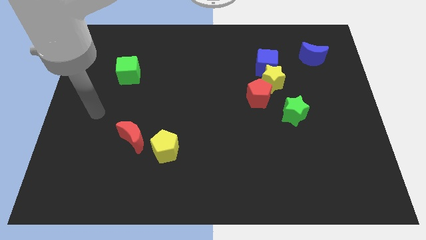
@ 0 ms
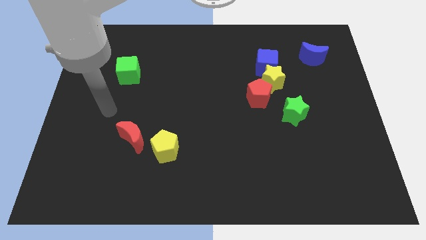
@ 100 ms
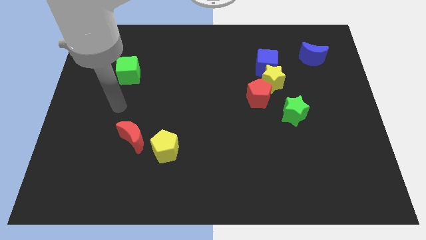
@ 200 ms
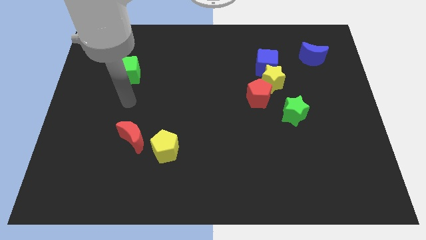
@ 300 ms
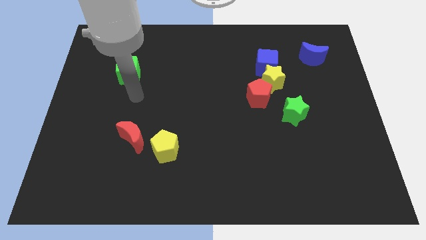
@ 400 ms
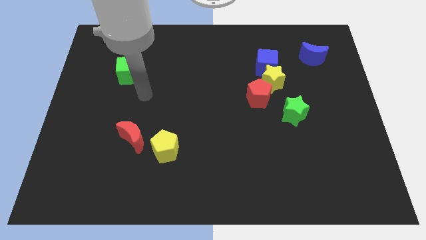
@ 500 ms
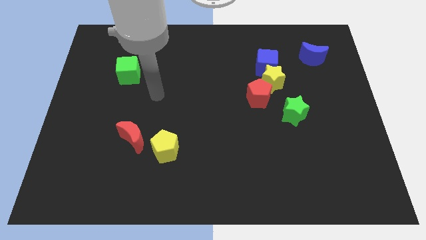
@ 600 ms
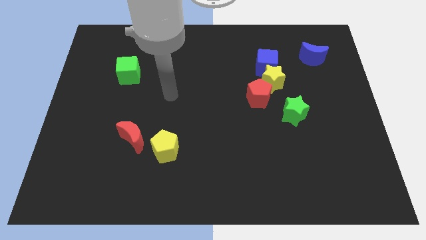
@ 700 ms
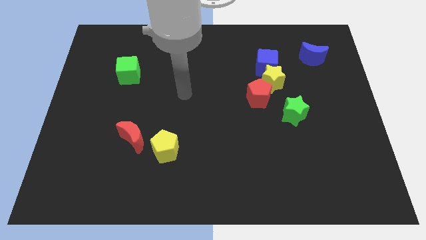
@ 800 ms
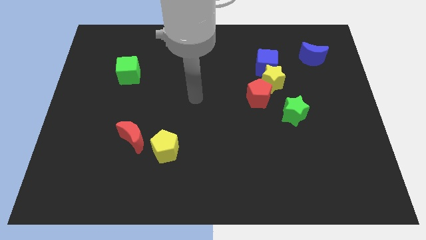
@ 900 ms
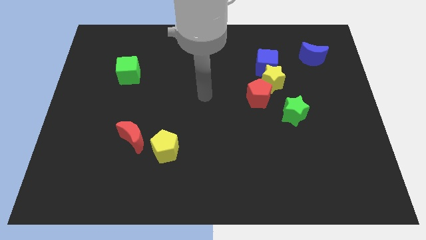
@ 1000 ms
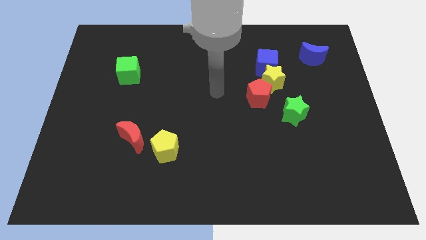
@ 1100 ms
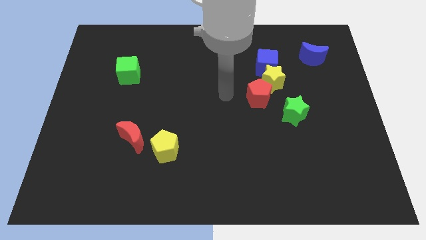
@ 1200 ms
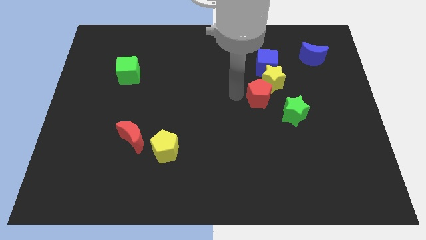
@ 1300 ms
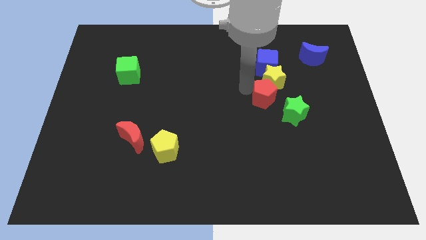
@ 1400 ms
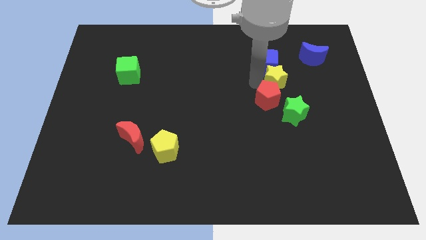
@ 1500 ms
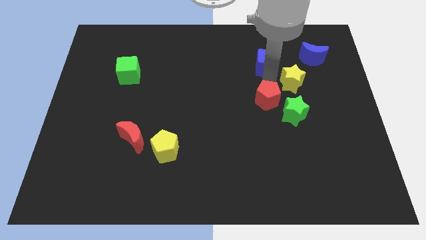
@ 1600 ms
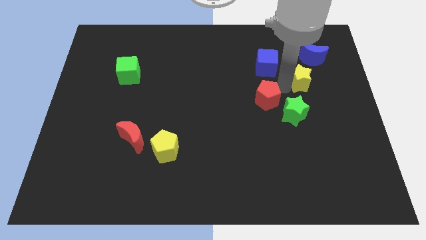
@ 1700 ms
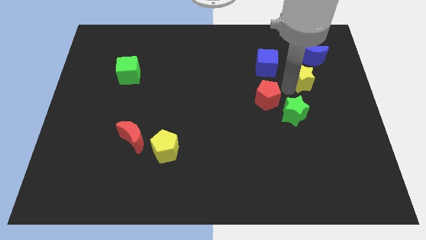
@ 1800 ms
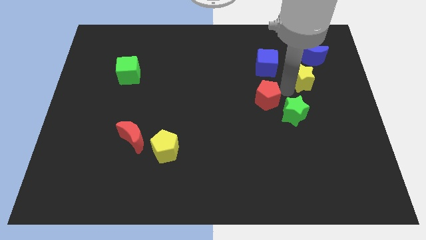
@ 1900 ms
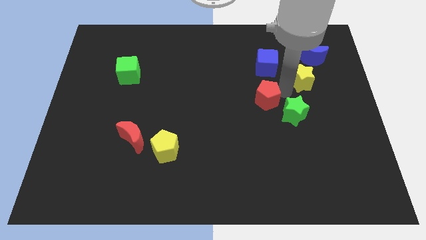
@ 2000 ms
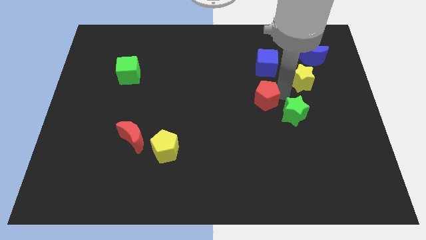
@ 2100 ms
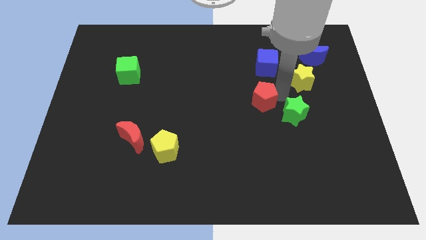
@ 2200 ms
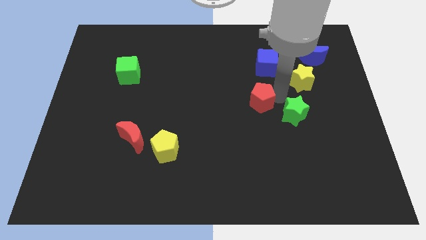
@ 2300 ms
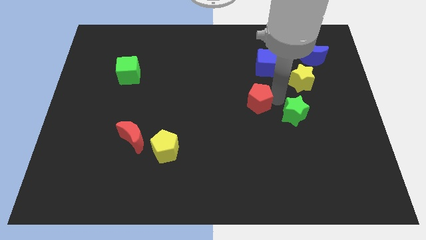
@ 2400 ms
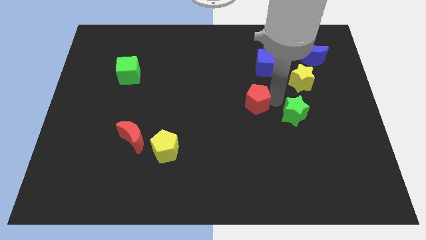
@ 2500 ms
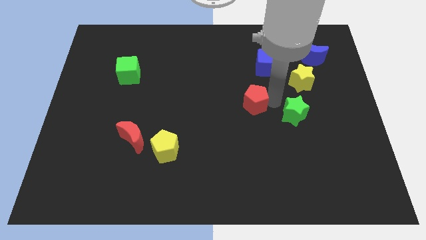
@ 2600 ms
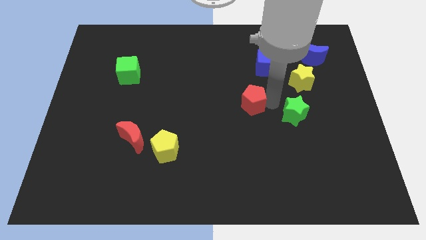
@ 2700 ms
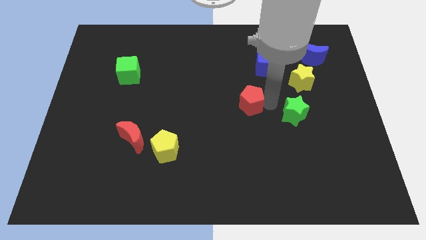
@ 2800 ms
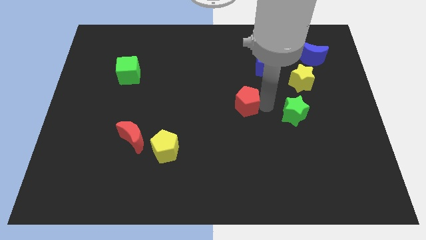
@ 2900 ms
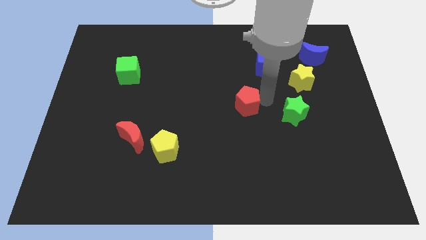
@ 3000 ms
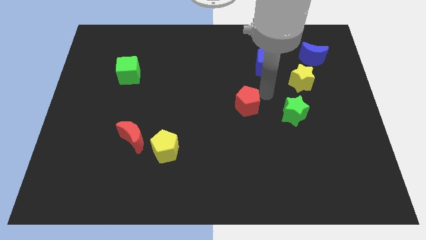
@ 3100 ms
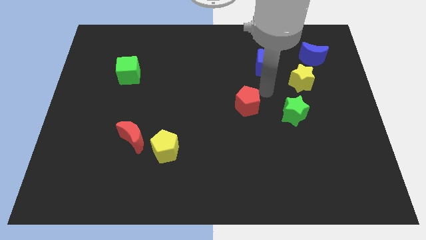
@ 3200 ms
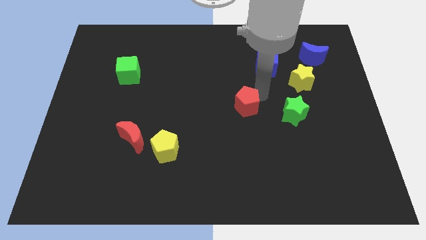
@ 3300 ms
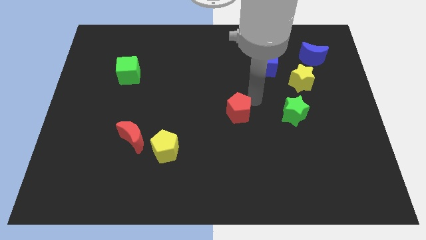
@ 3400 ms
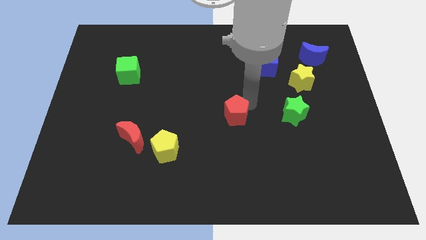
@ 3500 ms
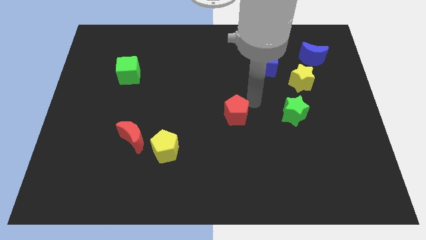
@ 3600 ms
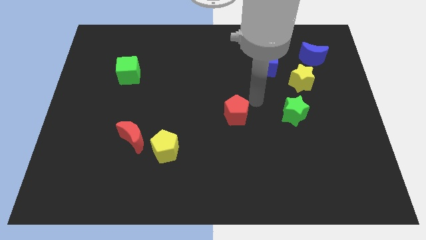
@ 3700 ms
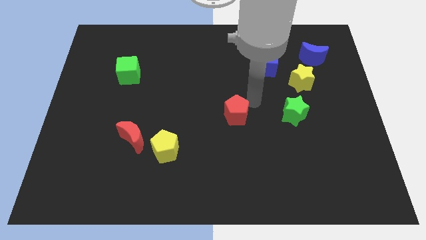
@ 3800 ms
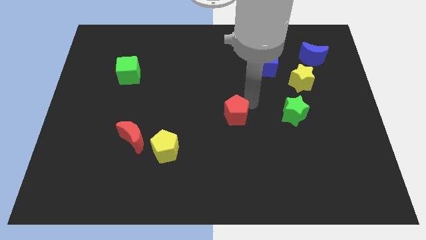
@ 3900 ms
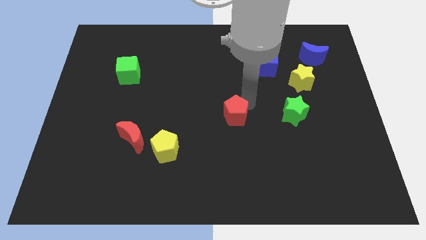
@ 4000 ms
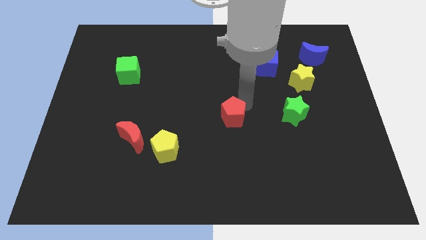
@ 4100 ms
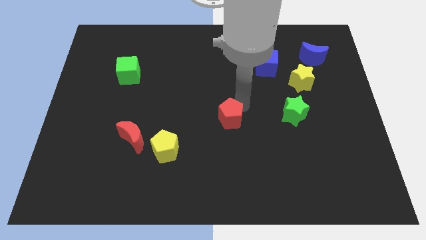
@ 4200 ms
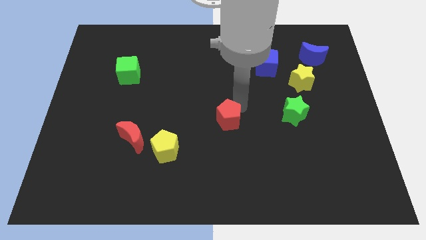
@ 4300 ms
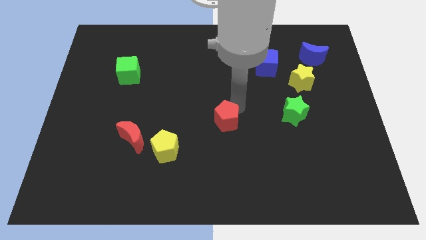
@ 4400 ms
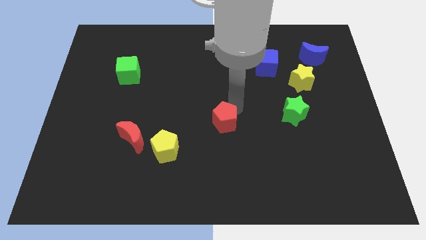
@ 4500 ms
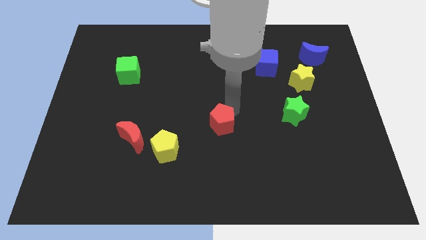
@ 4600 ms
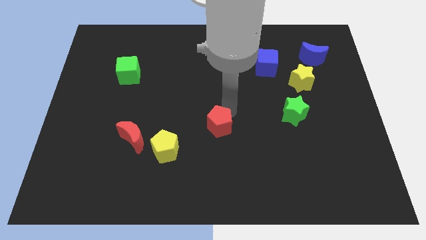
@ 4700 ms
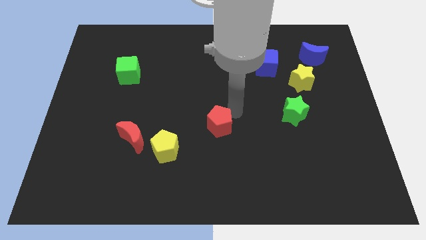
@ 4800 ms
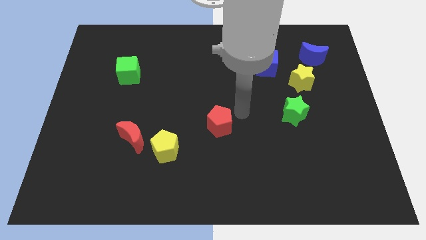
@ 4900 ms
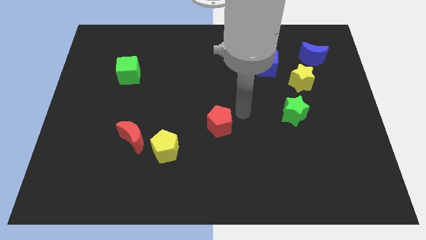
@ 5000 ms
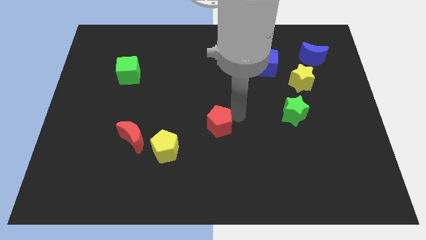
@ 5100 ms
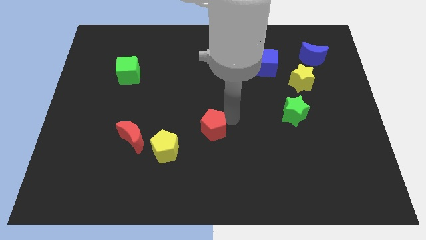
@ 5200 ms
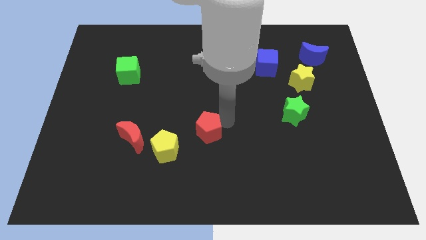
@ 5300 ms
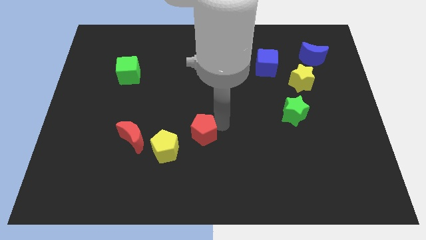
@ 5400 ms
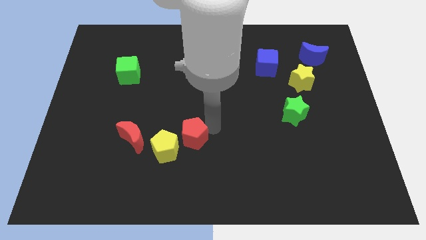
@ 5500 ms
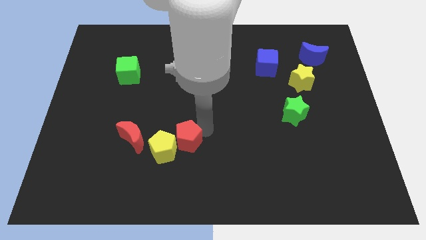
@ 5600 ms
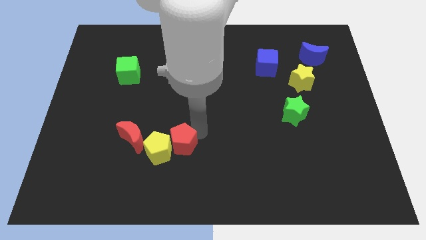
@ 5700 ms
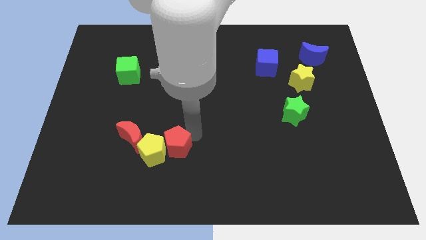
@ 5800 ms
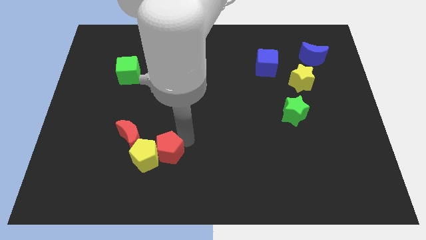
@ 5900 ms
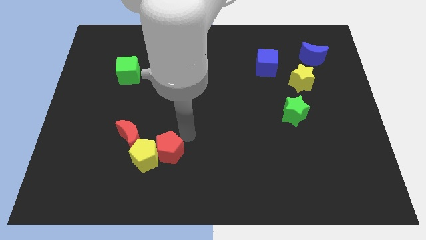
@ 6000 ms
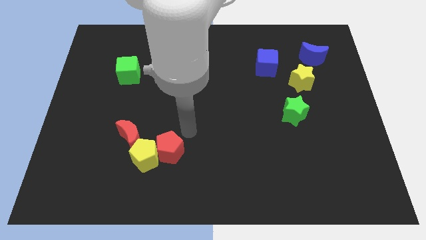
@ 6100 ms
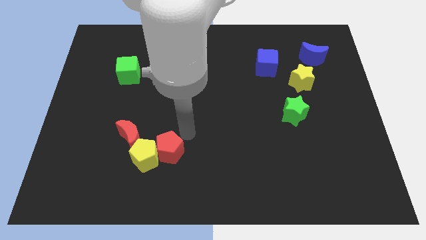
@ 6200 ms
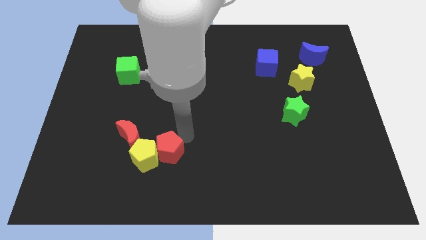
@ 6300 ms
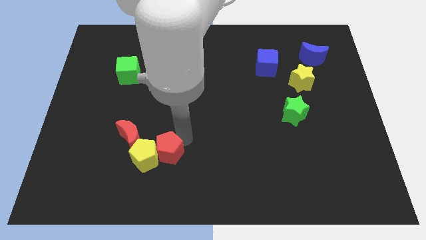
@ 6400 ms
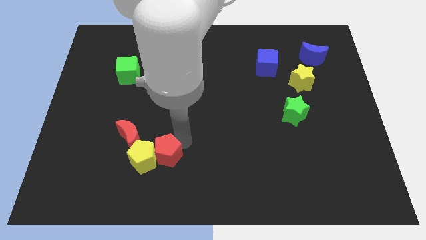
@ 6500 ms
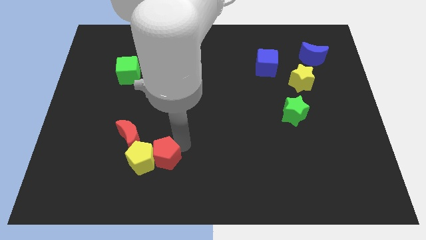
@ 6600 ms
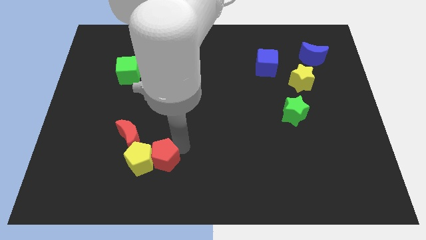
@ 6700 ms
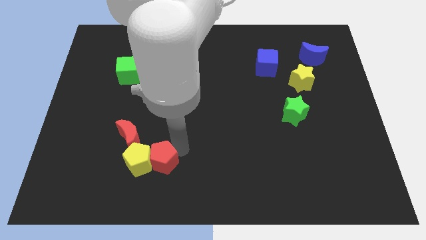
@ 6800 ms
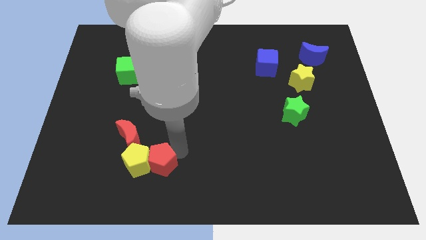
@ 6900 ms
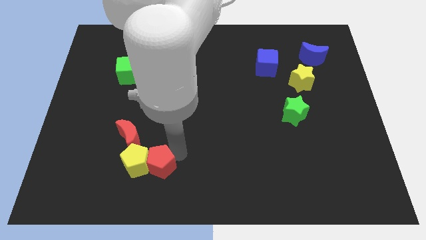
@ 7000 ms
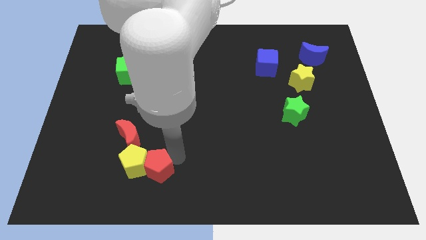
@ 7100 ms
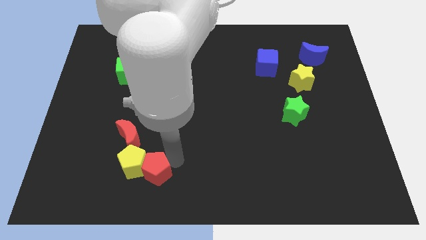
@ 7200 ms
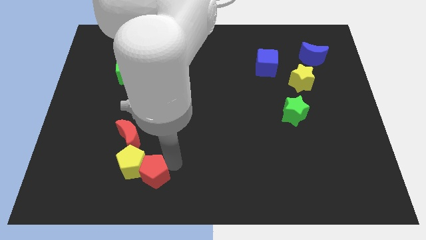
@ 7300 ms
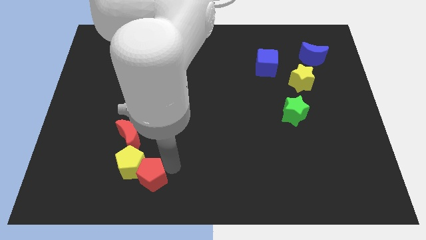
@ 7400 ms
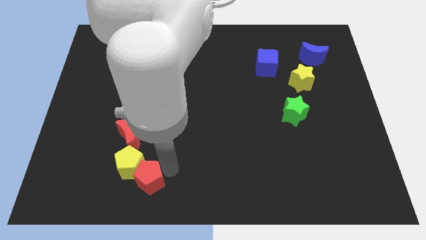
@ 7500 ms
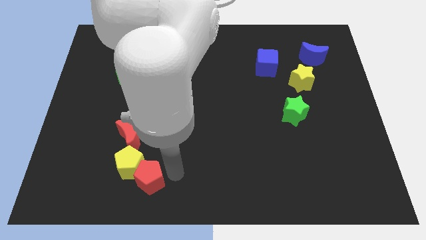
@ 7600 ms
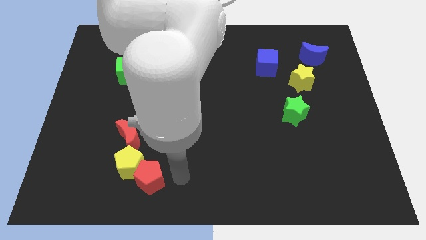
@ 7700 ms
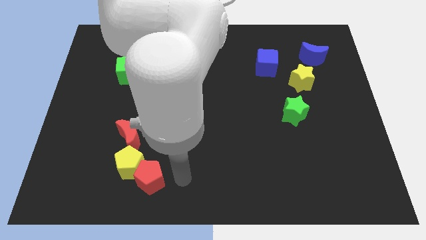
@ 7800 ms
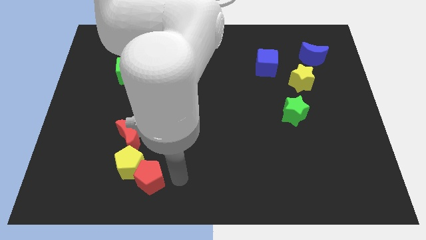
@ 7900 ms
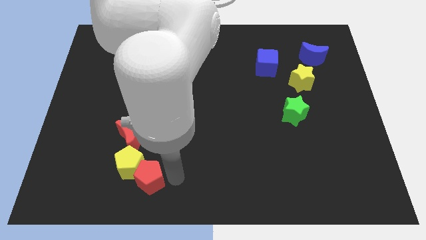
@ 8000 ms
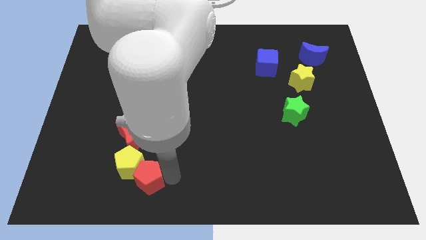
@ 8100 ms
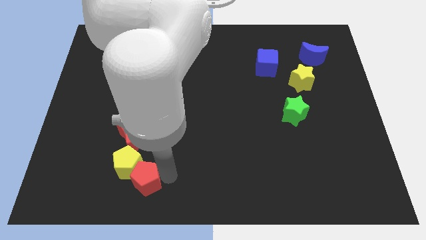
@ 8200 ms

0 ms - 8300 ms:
move the red pentagon to the bottom of the red moon
